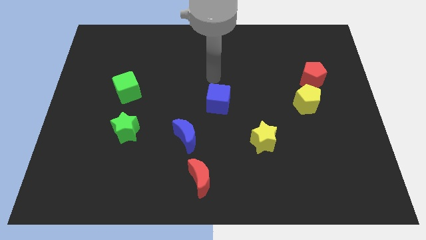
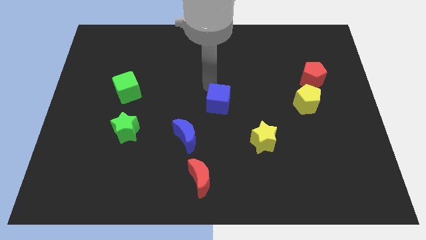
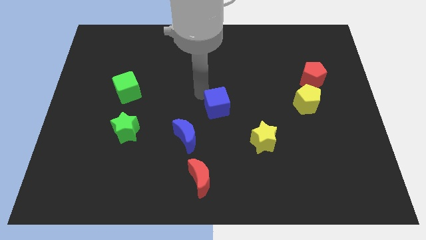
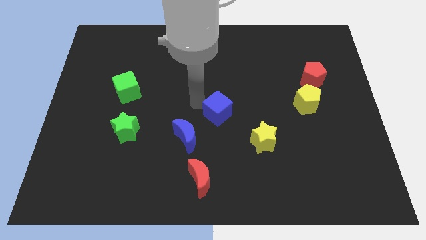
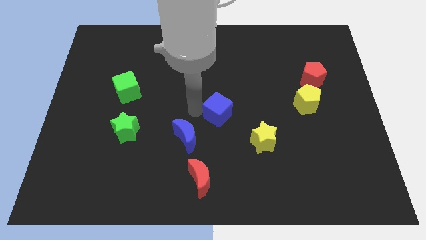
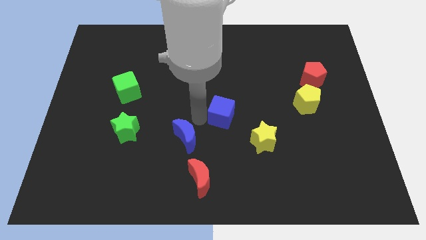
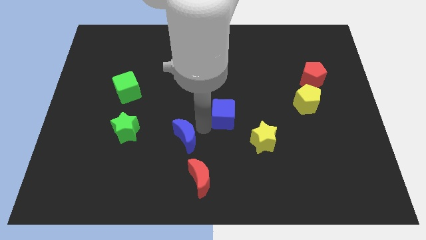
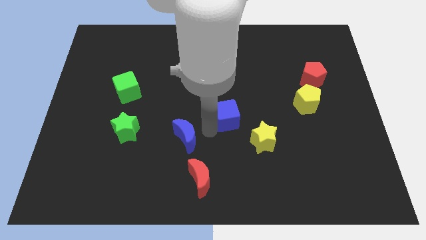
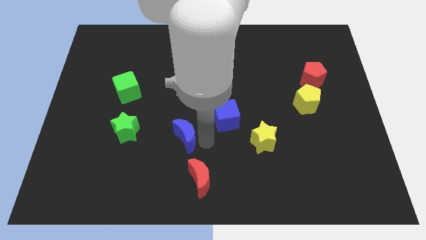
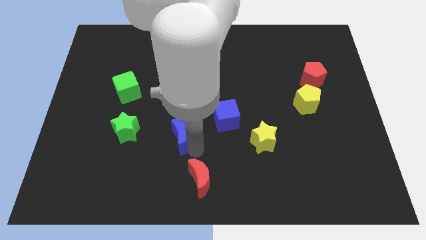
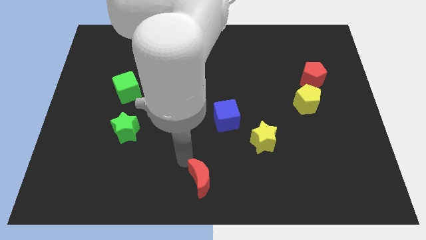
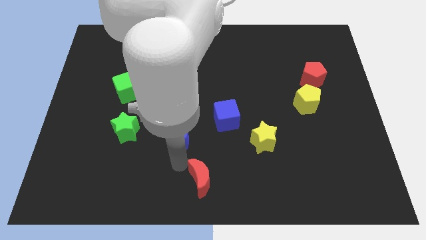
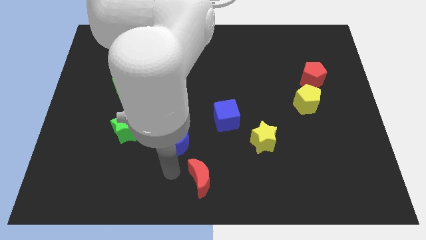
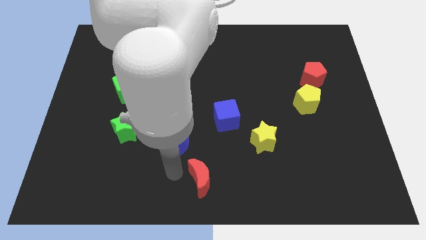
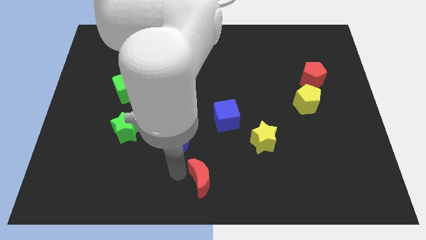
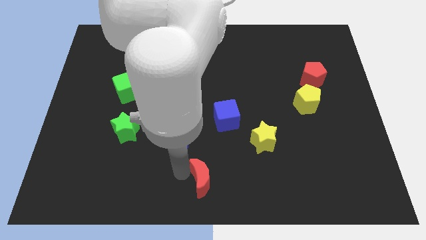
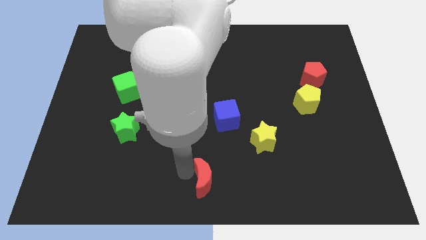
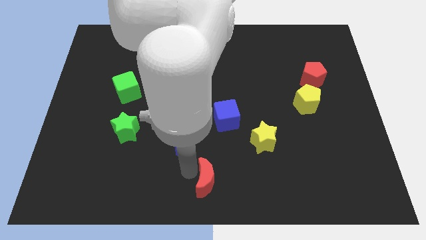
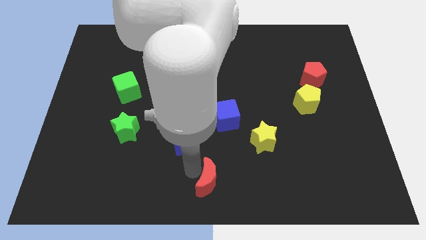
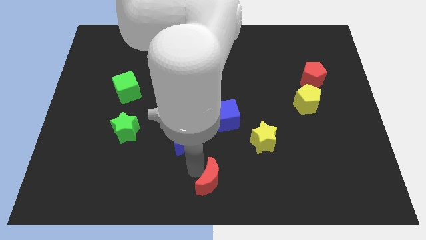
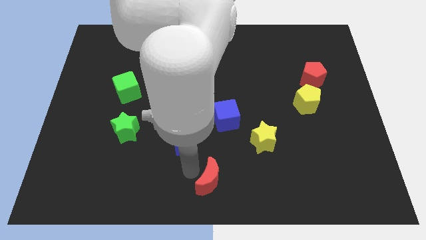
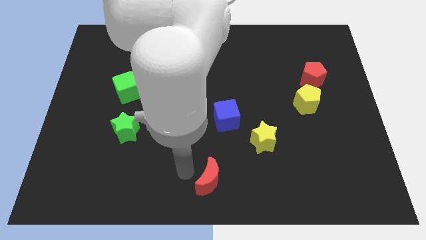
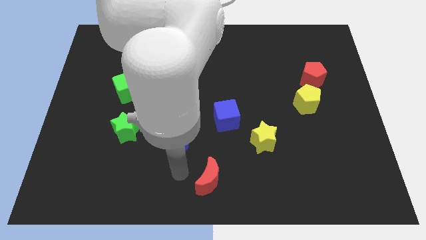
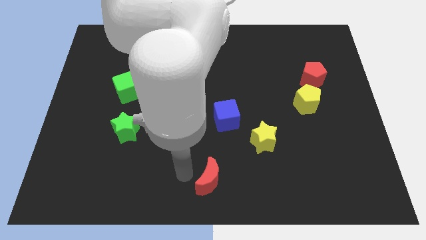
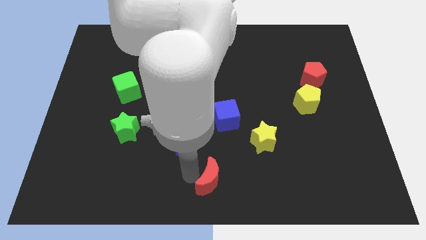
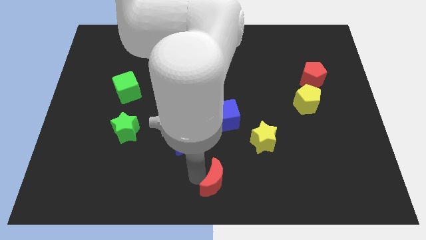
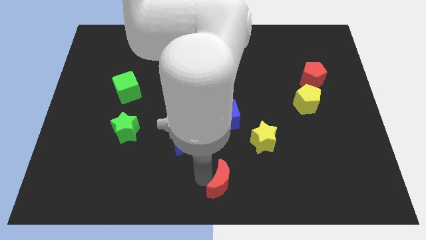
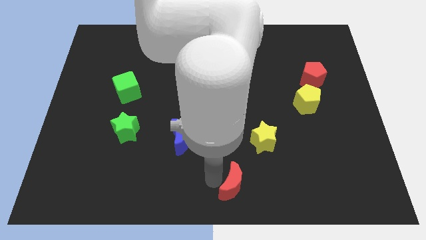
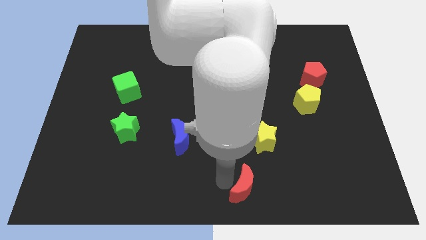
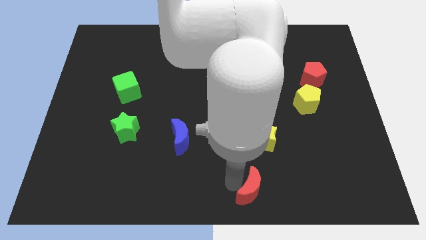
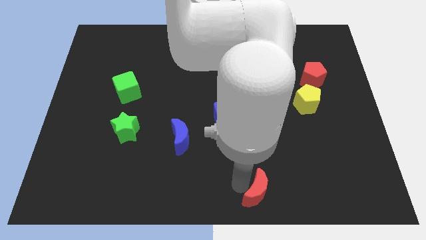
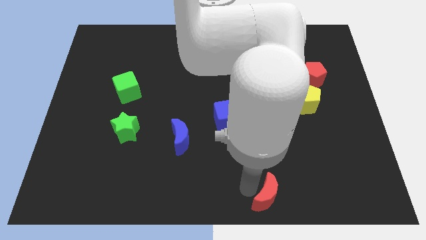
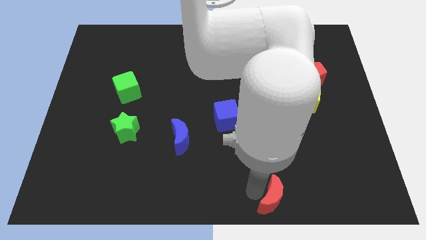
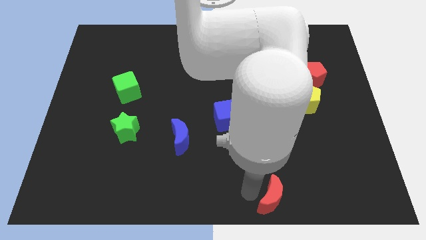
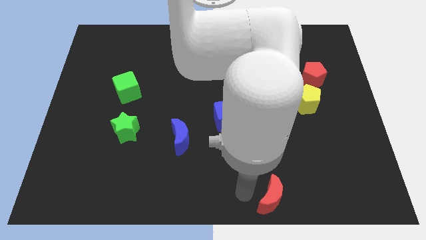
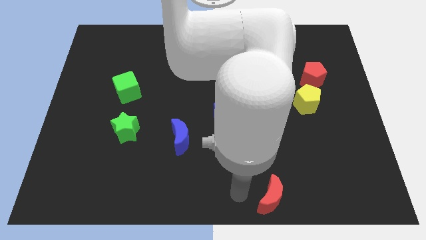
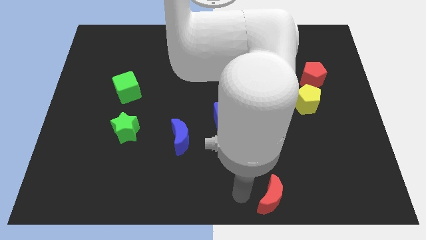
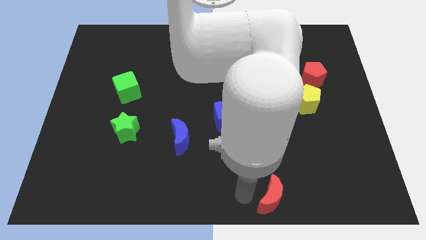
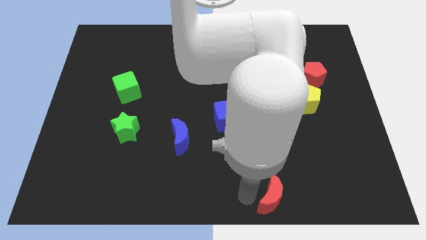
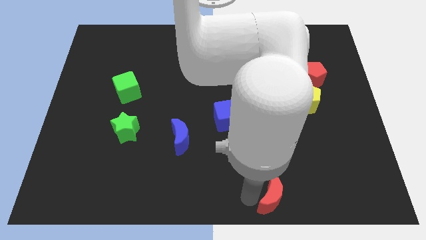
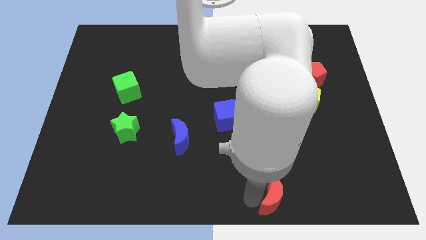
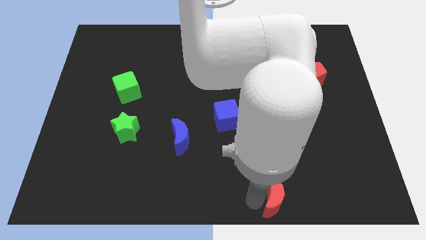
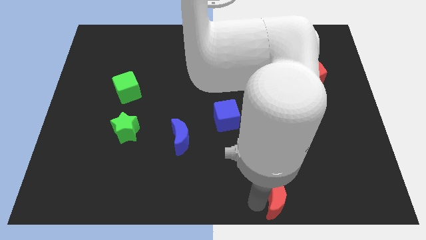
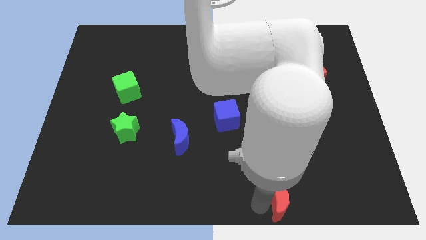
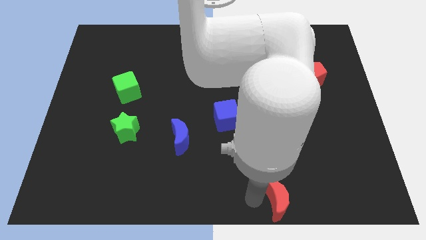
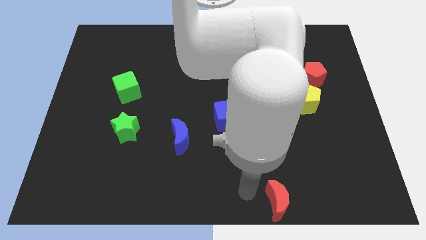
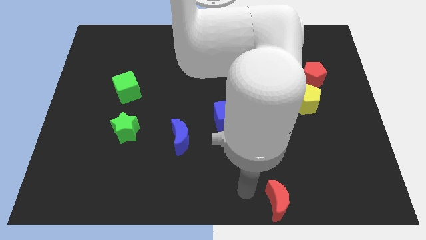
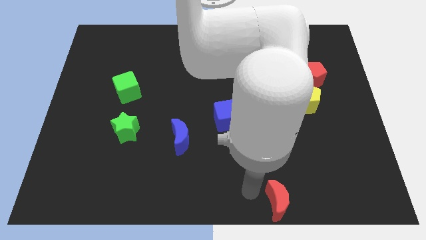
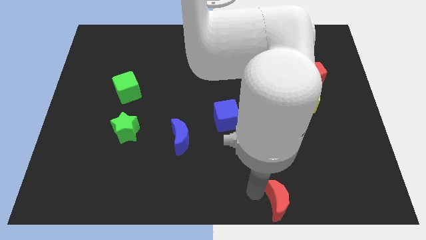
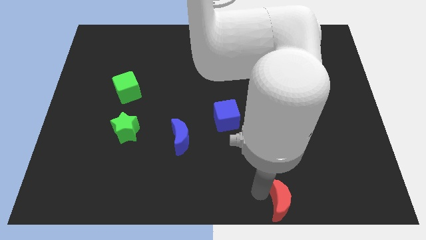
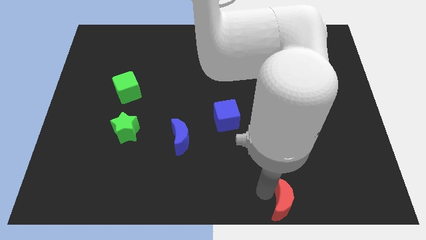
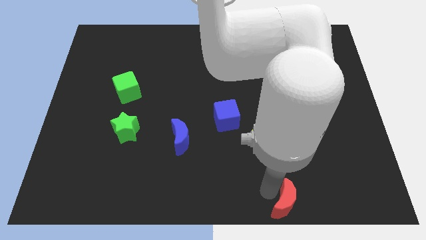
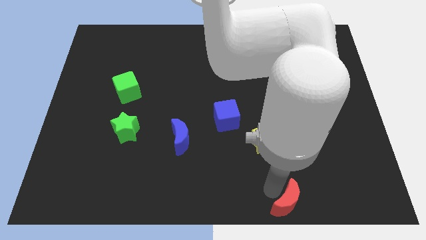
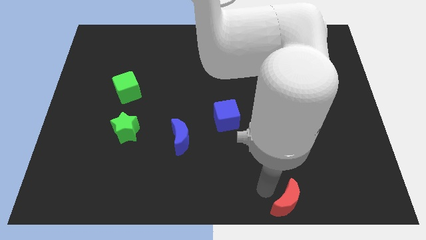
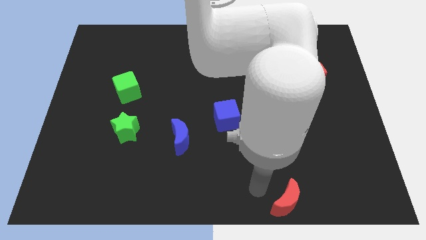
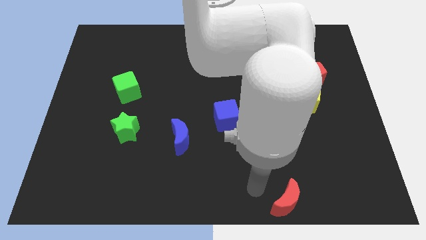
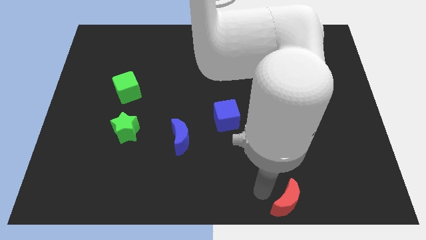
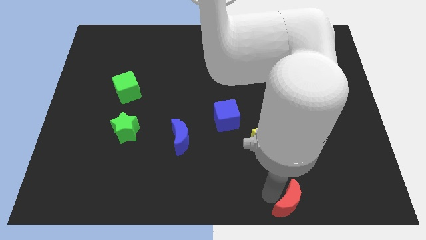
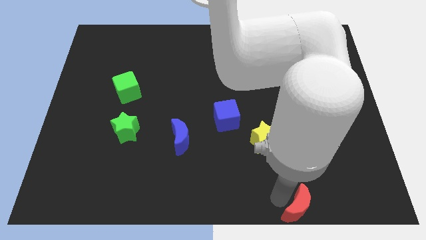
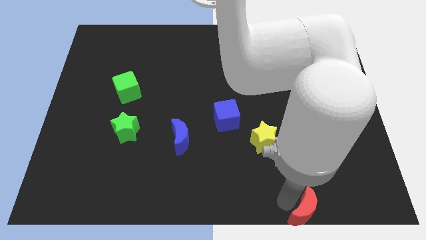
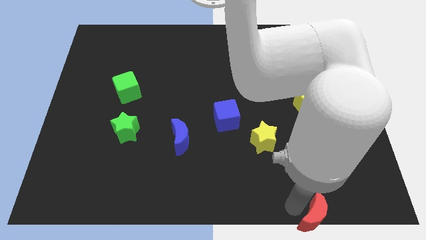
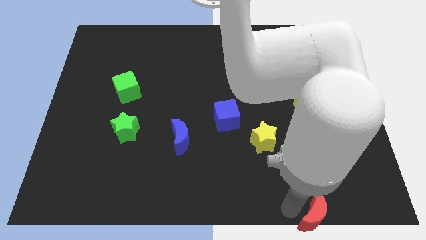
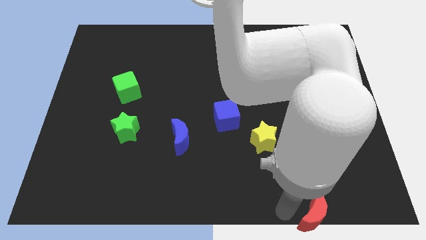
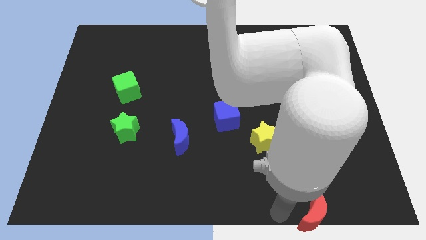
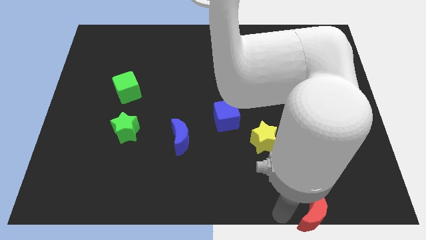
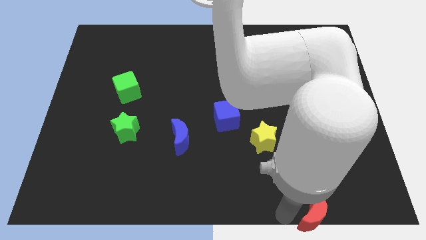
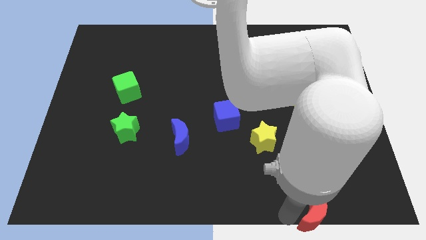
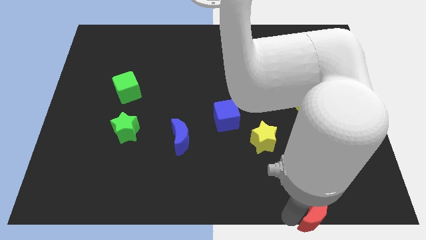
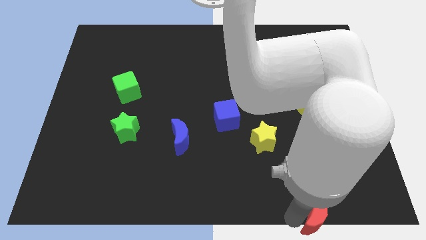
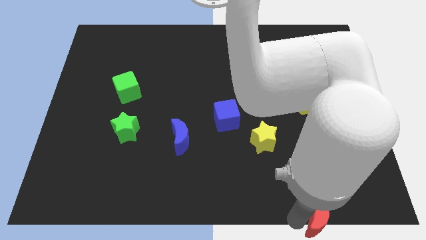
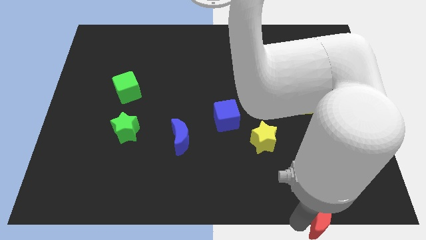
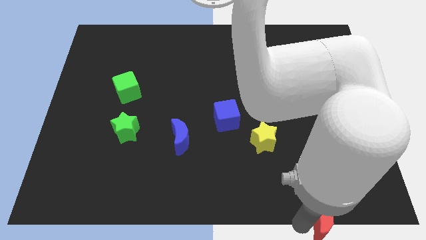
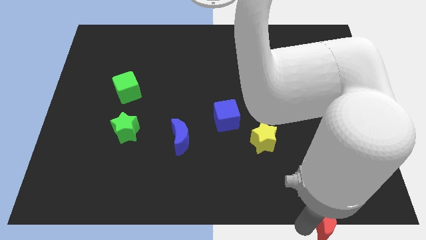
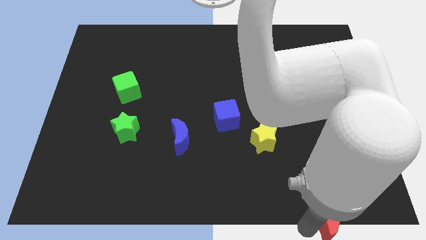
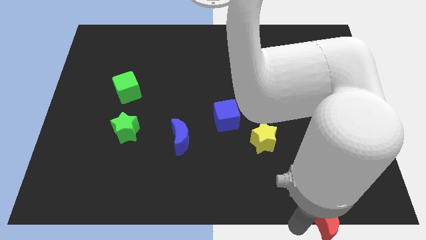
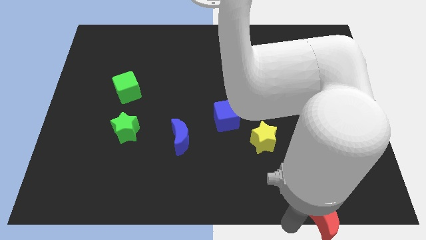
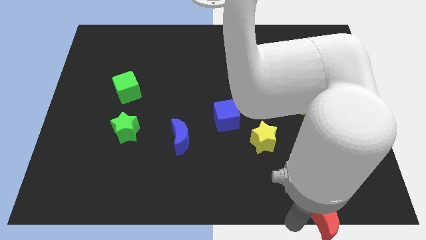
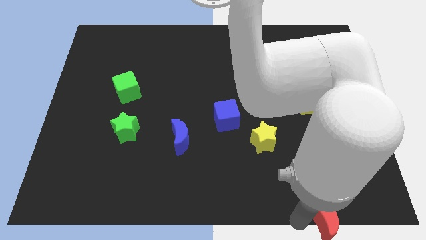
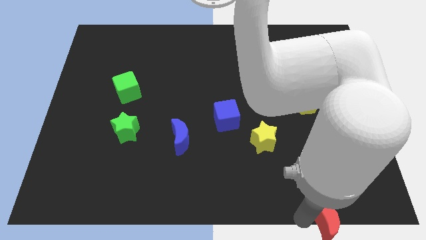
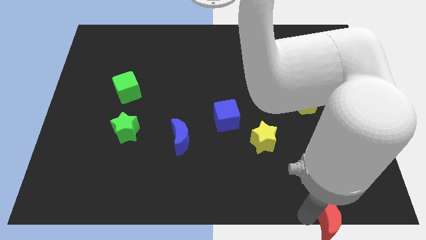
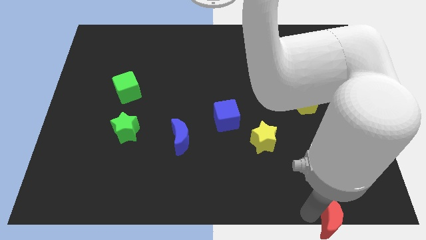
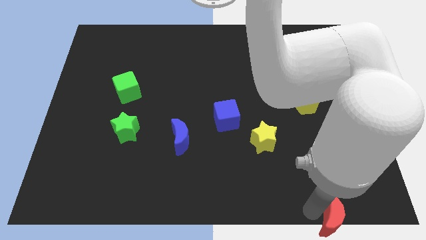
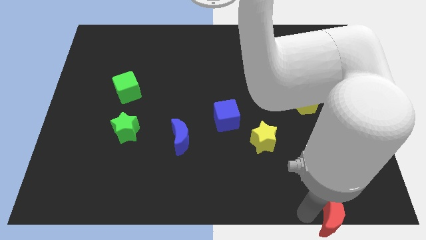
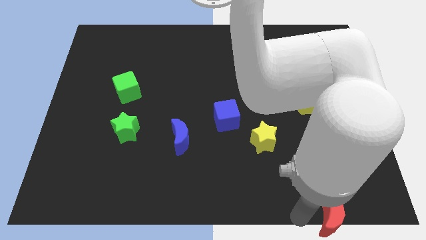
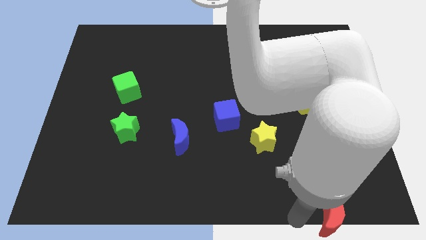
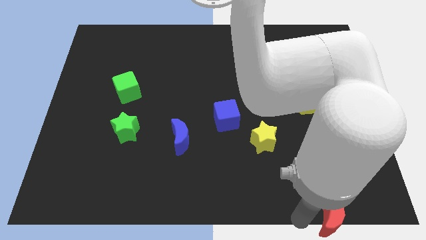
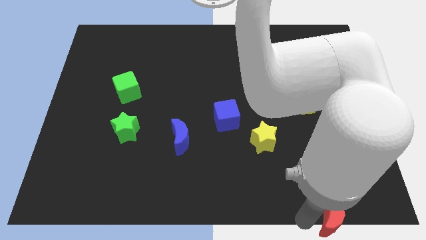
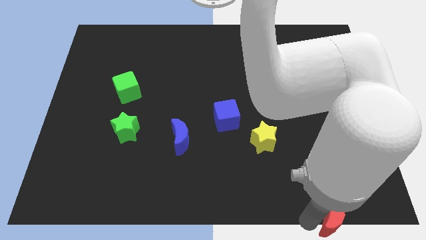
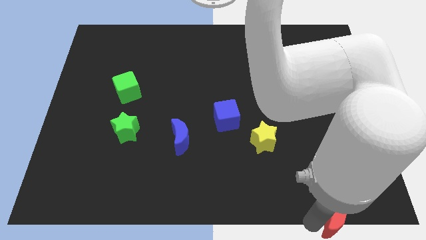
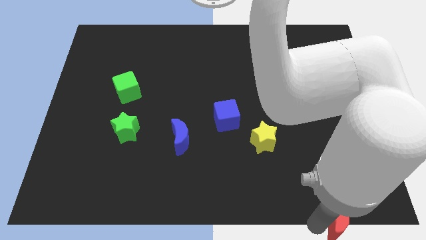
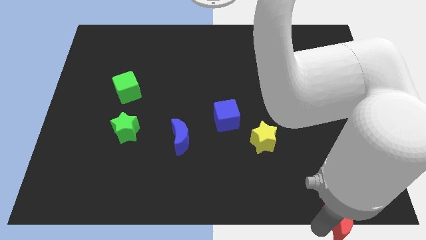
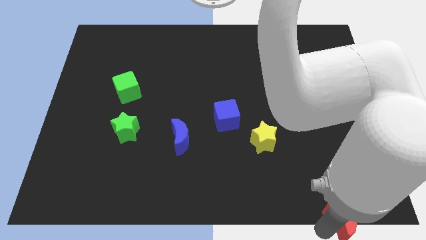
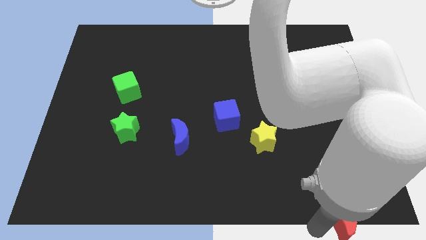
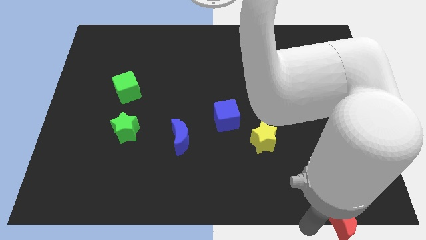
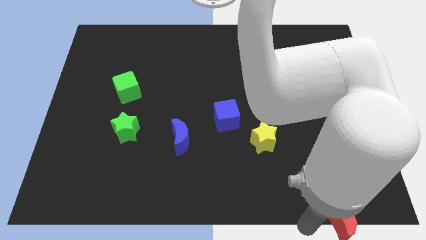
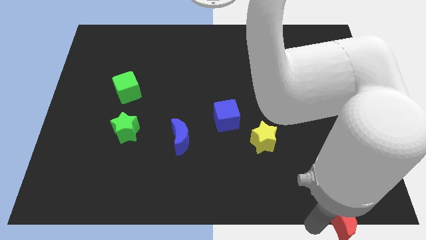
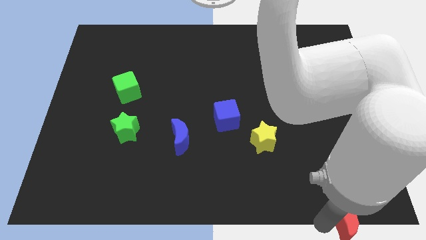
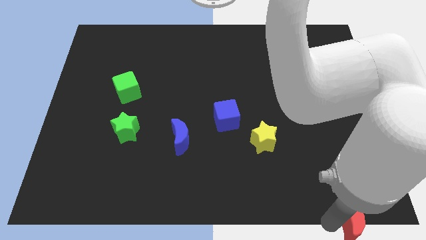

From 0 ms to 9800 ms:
push the red moon to the bottom right
